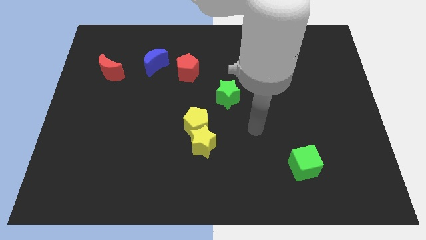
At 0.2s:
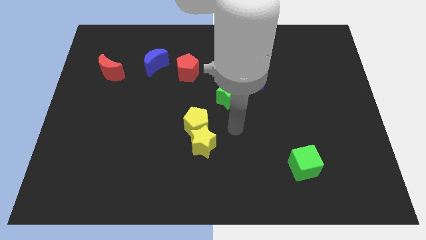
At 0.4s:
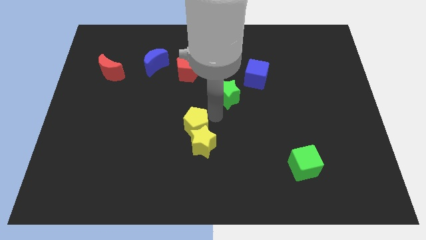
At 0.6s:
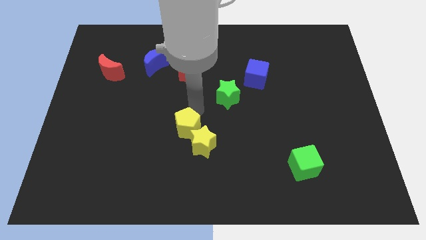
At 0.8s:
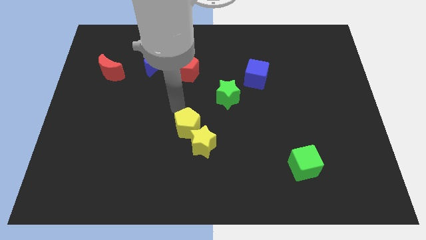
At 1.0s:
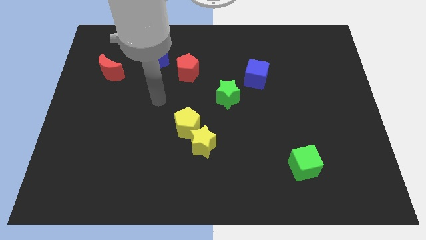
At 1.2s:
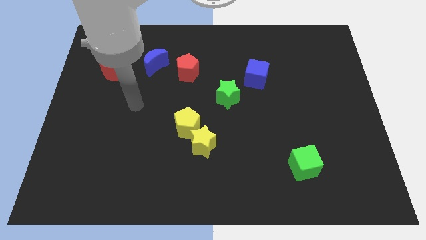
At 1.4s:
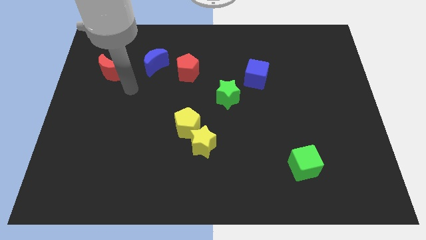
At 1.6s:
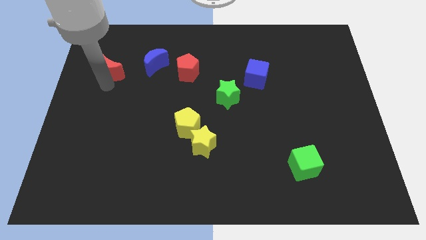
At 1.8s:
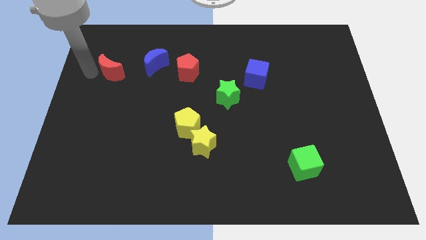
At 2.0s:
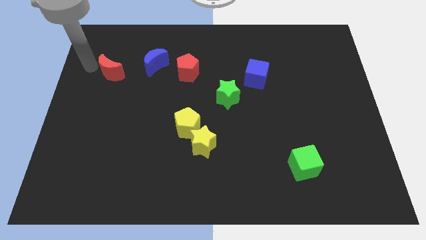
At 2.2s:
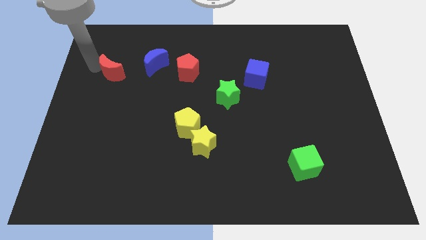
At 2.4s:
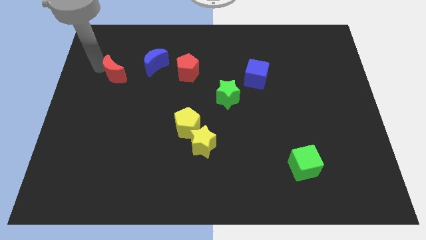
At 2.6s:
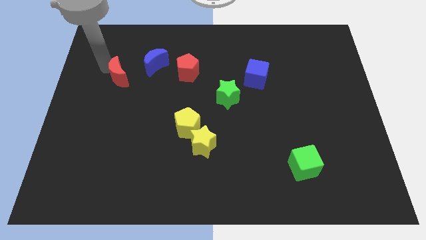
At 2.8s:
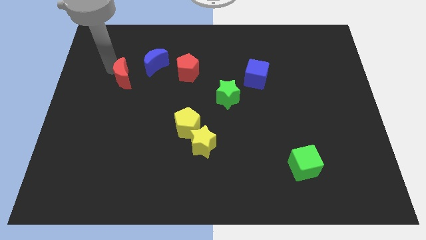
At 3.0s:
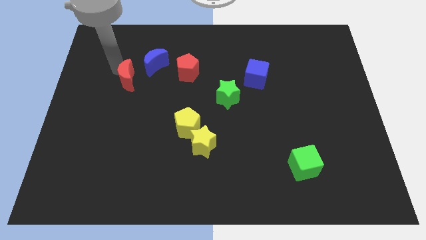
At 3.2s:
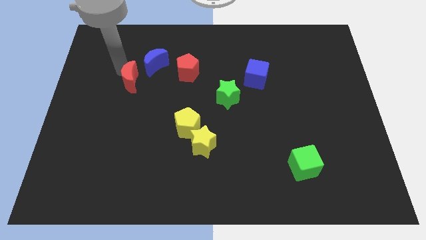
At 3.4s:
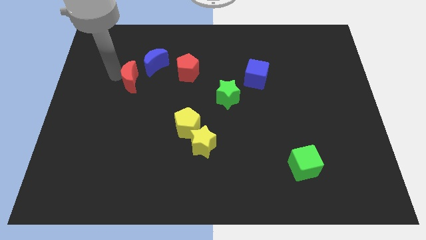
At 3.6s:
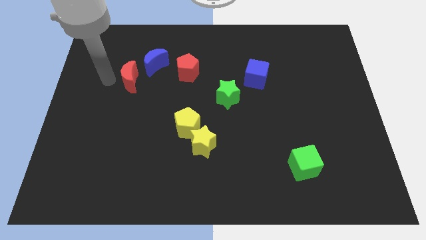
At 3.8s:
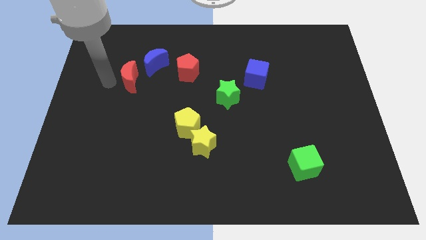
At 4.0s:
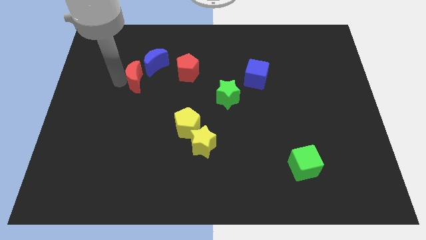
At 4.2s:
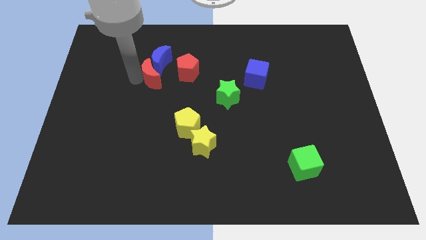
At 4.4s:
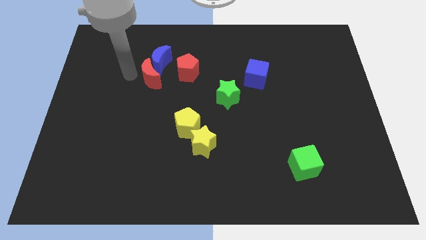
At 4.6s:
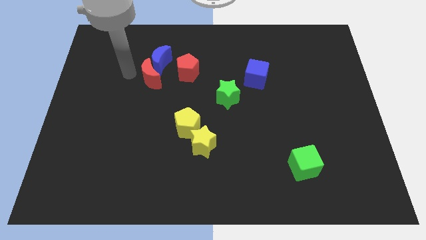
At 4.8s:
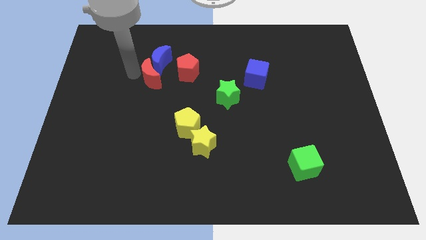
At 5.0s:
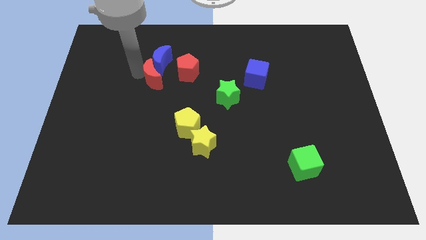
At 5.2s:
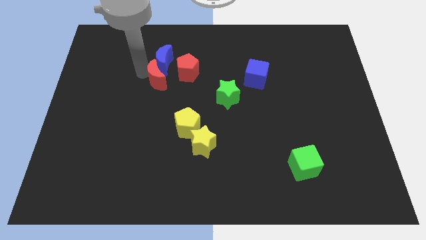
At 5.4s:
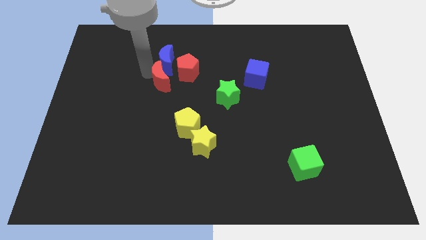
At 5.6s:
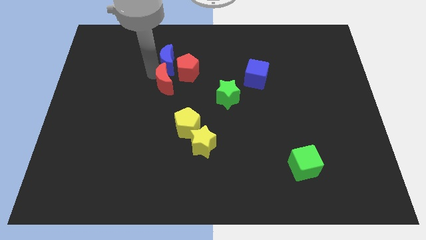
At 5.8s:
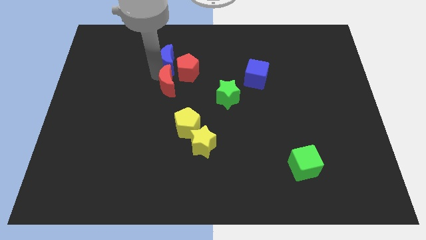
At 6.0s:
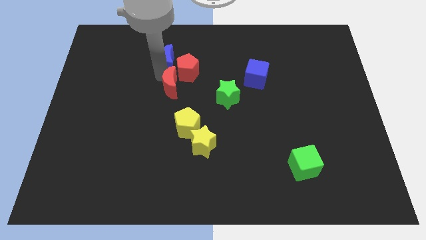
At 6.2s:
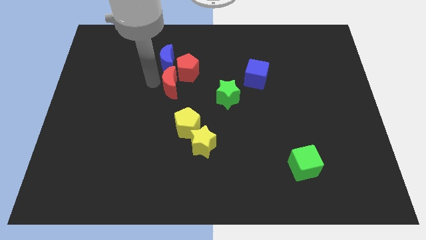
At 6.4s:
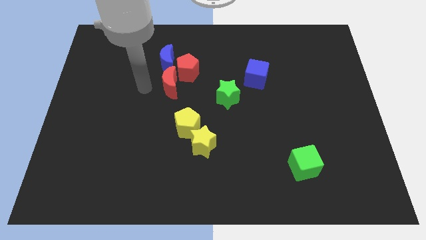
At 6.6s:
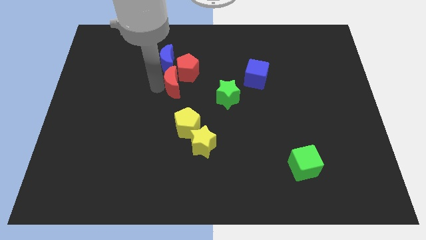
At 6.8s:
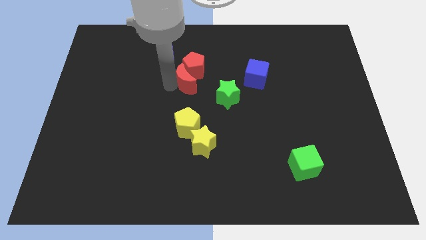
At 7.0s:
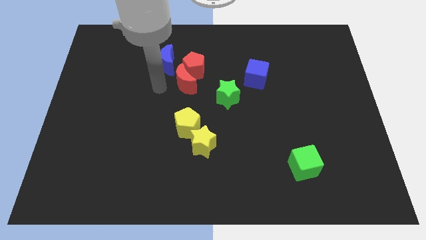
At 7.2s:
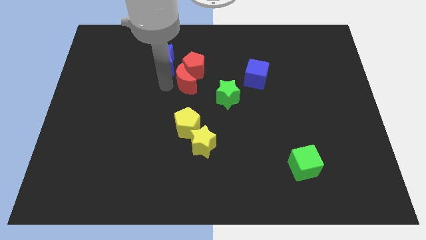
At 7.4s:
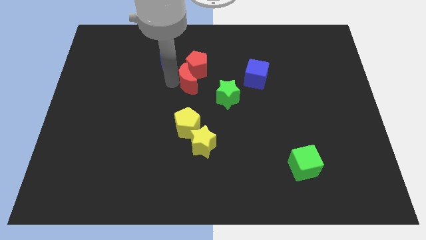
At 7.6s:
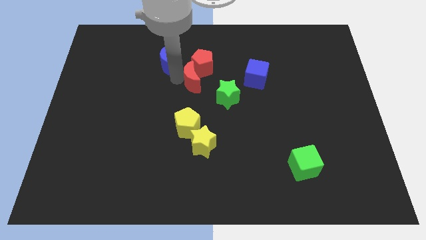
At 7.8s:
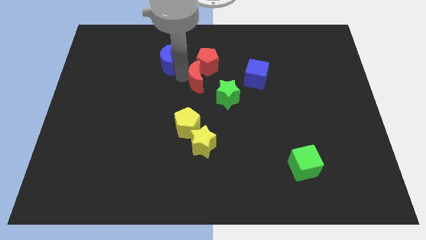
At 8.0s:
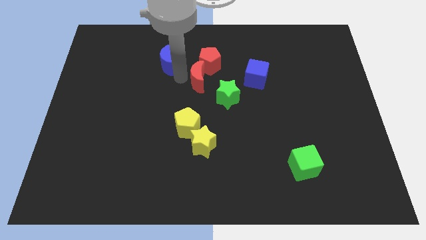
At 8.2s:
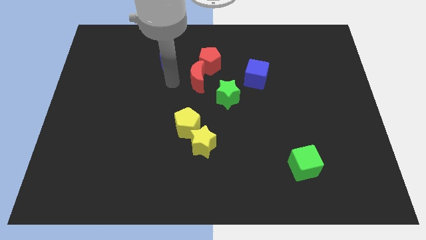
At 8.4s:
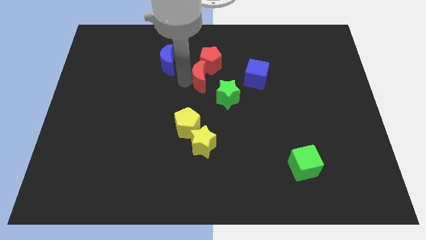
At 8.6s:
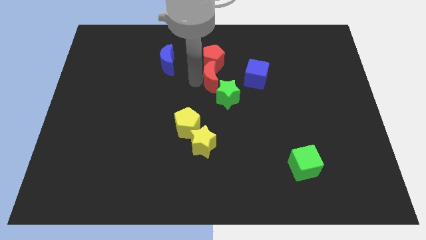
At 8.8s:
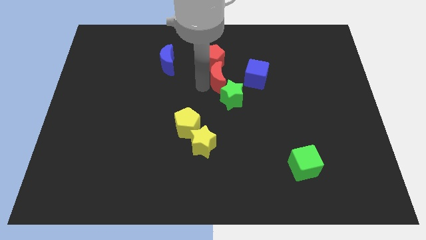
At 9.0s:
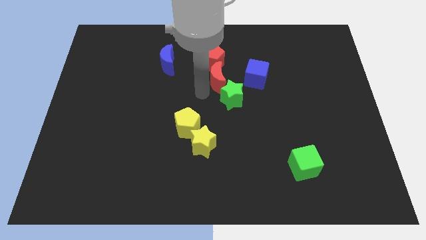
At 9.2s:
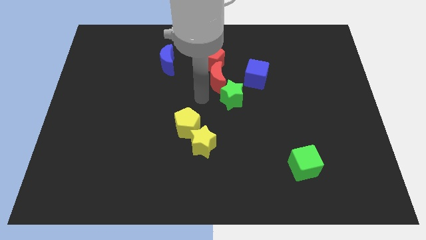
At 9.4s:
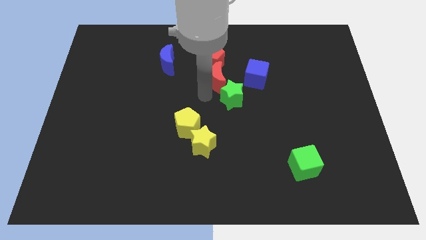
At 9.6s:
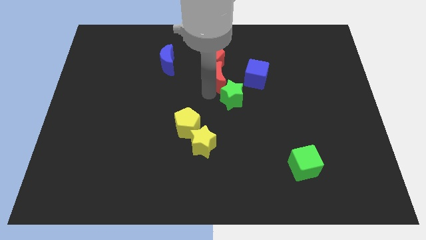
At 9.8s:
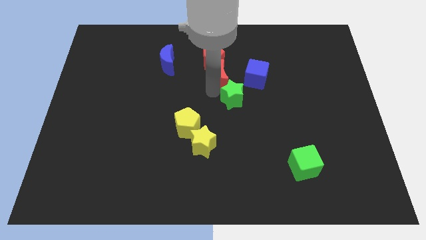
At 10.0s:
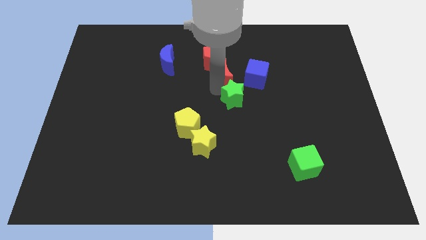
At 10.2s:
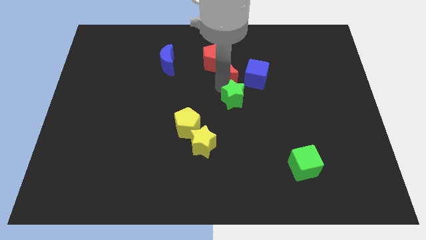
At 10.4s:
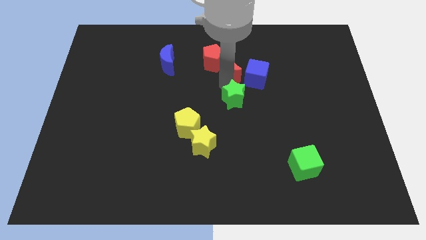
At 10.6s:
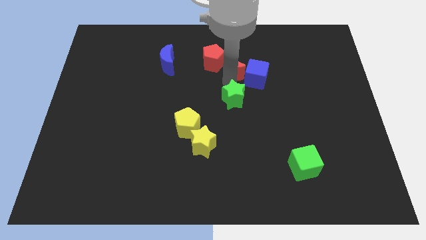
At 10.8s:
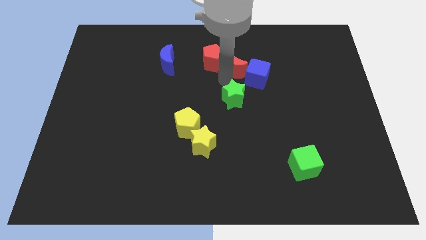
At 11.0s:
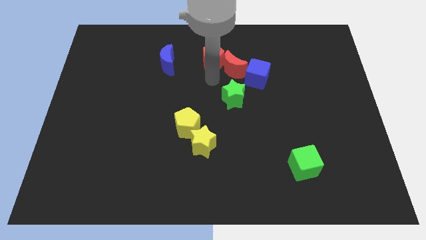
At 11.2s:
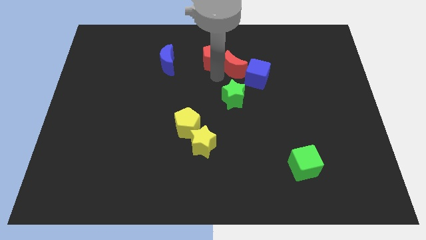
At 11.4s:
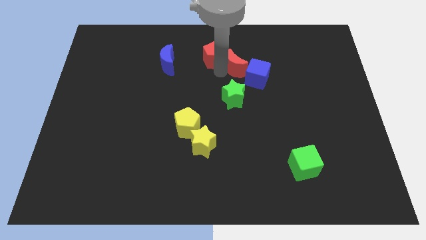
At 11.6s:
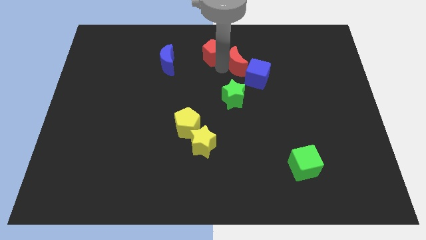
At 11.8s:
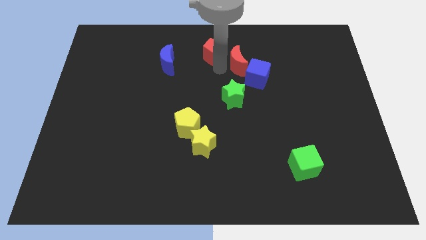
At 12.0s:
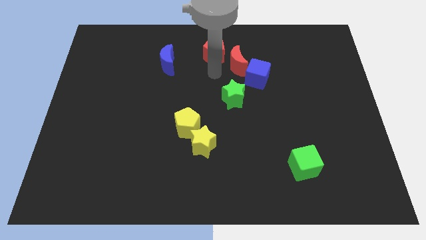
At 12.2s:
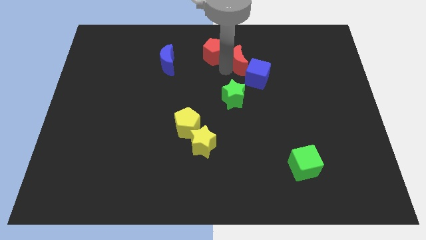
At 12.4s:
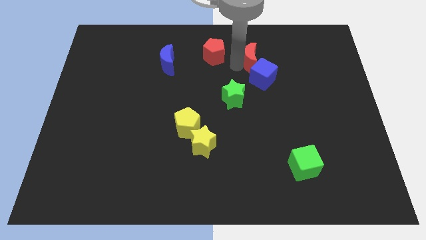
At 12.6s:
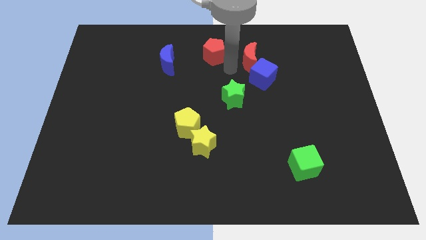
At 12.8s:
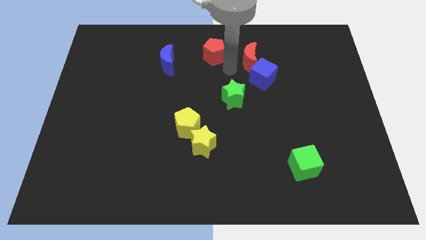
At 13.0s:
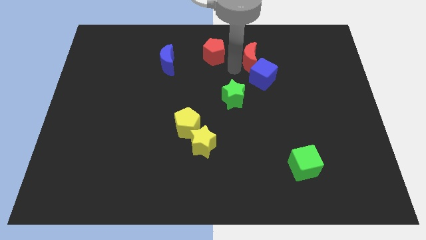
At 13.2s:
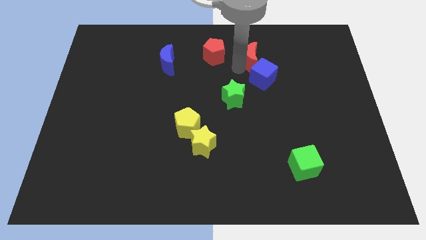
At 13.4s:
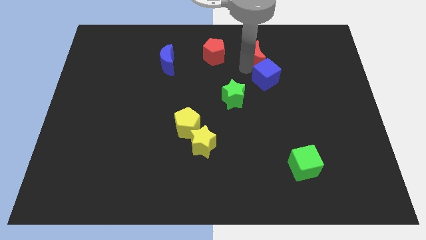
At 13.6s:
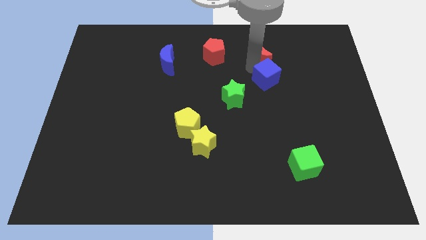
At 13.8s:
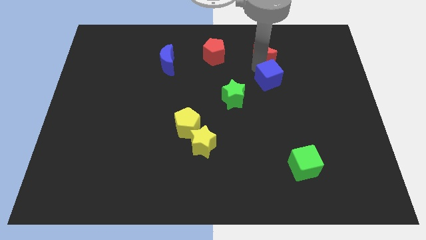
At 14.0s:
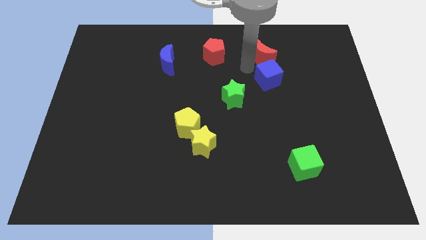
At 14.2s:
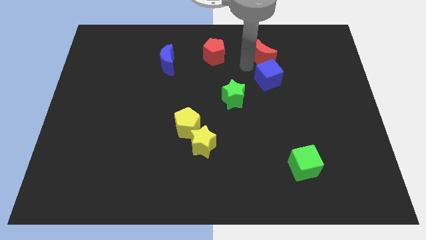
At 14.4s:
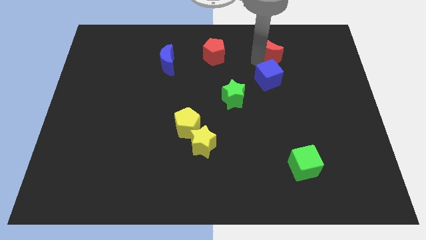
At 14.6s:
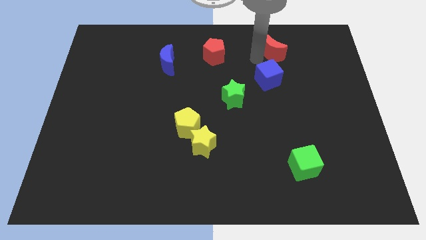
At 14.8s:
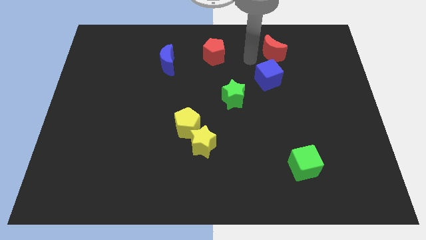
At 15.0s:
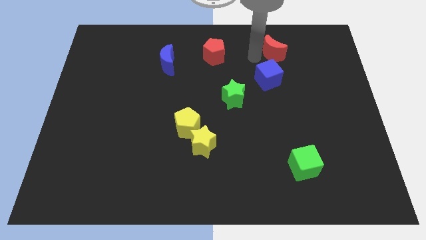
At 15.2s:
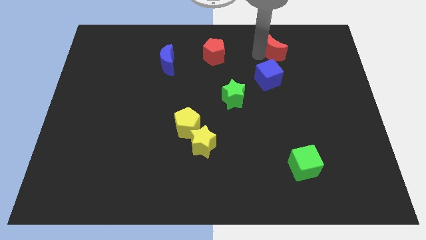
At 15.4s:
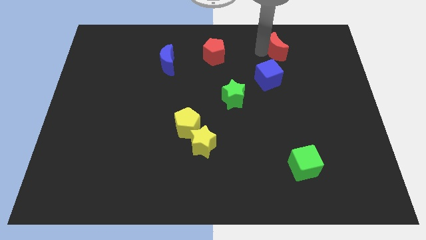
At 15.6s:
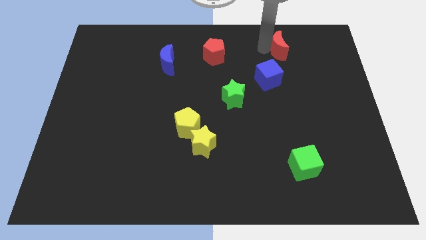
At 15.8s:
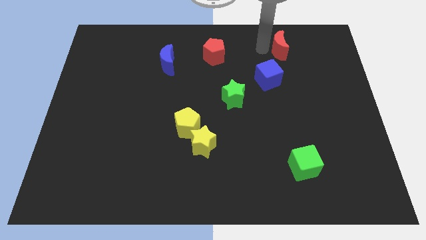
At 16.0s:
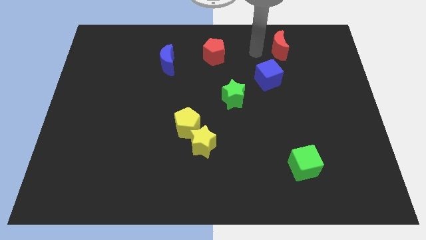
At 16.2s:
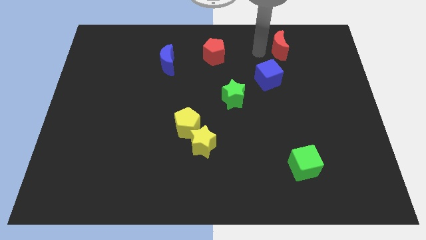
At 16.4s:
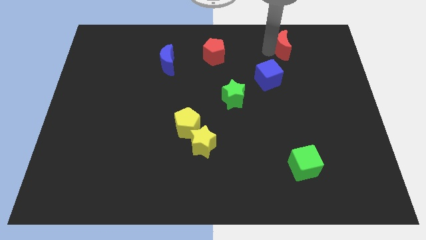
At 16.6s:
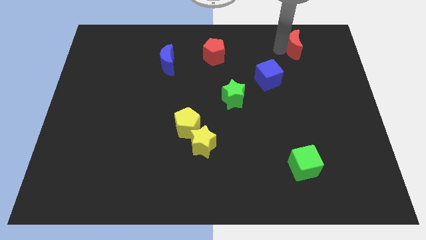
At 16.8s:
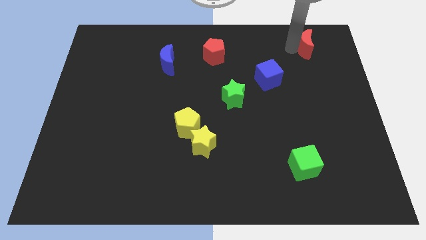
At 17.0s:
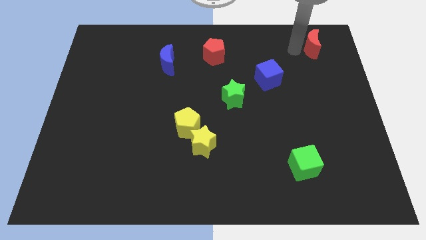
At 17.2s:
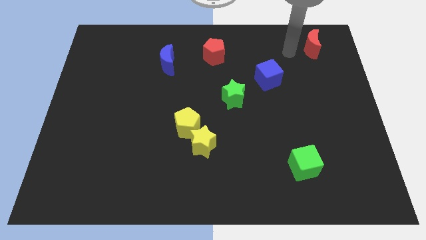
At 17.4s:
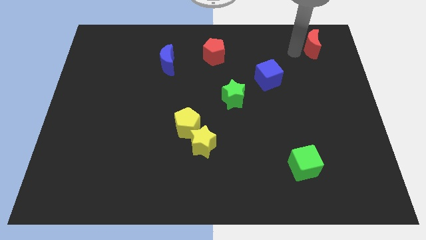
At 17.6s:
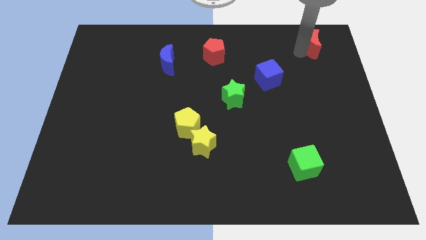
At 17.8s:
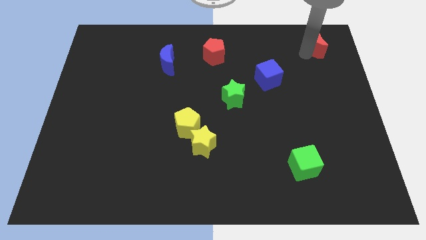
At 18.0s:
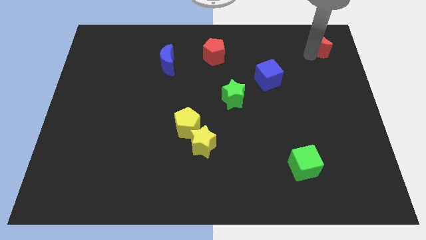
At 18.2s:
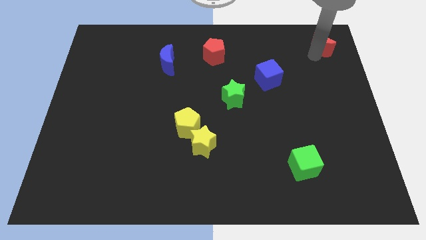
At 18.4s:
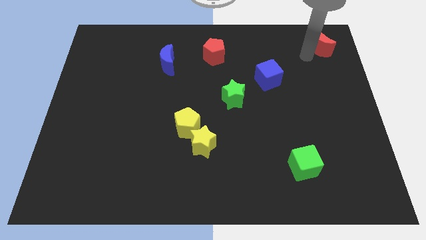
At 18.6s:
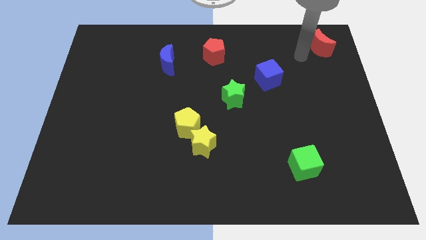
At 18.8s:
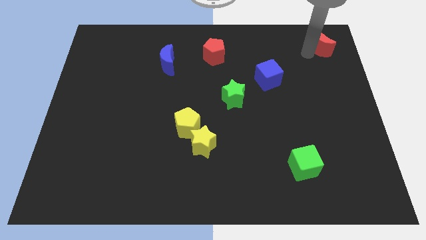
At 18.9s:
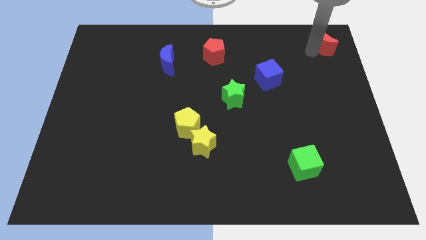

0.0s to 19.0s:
push the red moon to the top right corner
